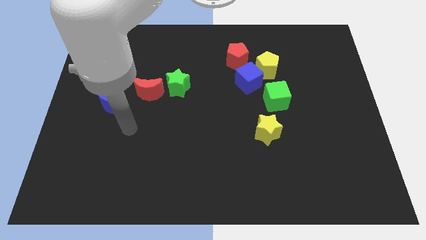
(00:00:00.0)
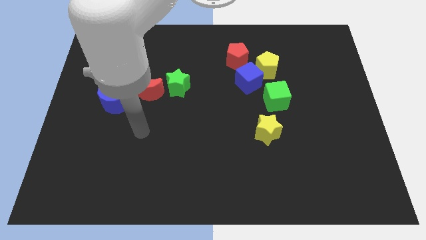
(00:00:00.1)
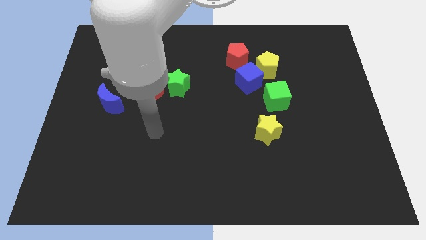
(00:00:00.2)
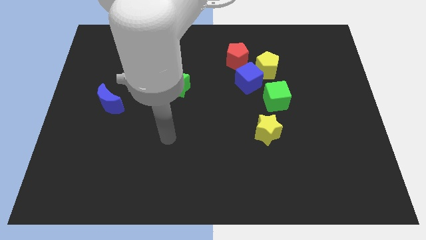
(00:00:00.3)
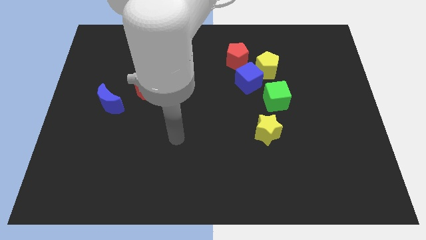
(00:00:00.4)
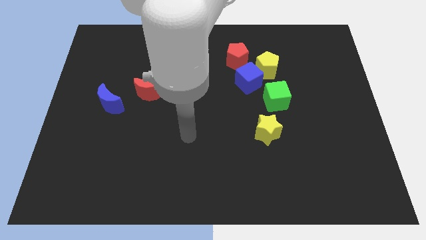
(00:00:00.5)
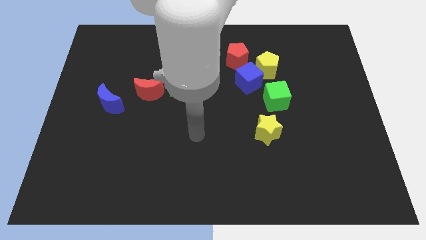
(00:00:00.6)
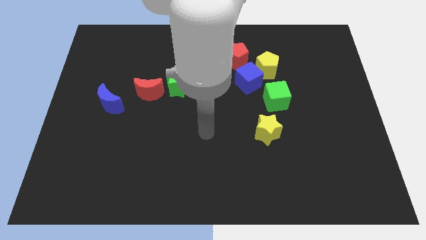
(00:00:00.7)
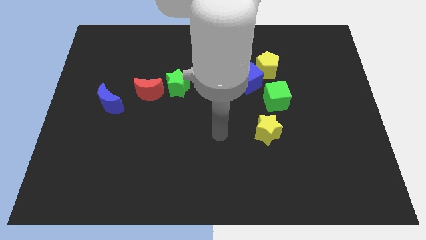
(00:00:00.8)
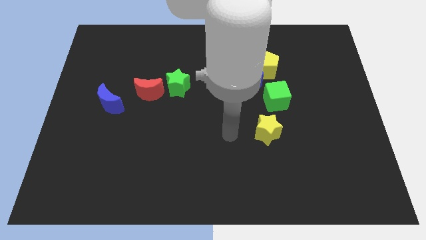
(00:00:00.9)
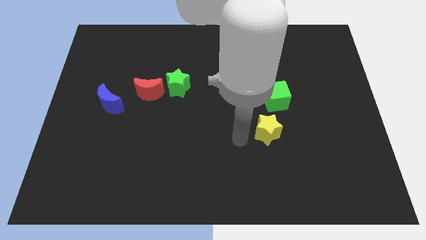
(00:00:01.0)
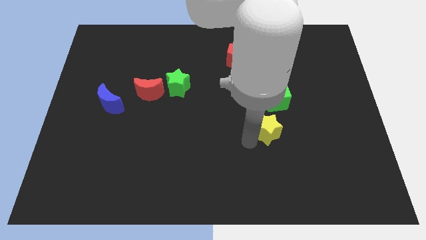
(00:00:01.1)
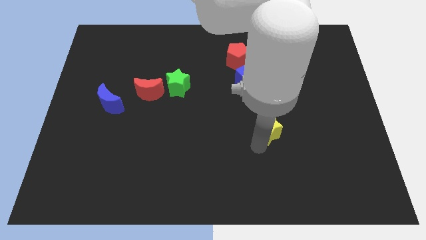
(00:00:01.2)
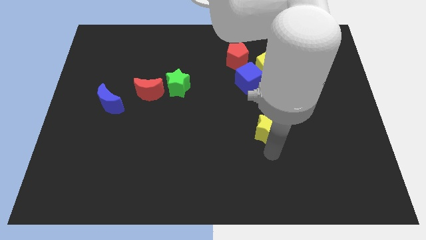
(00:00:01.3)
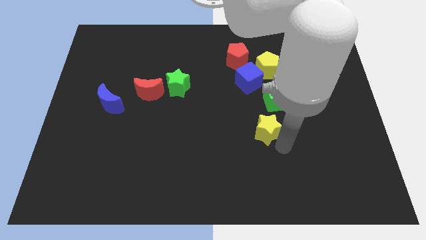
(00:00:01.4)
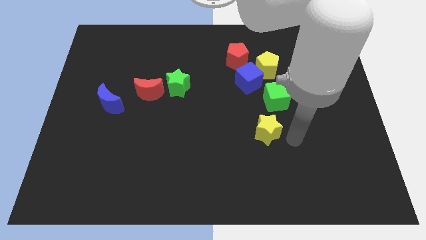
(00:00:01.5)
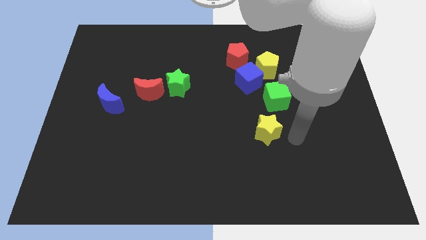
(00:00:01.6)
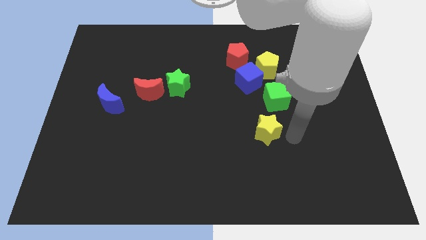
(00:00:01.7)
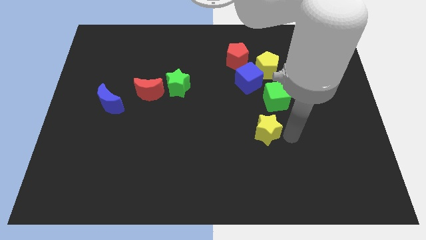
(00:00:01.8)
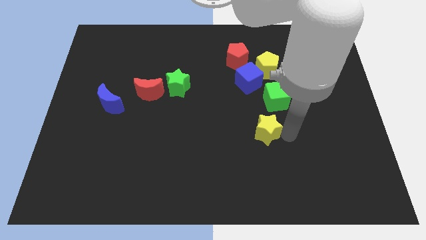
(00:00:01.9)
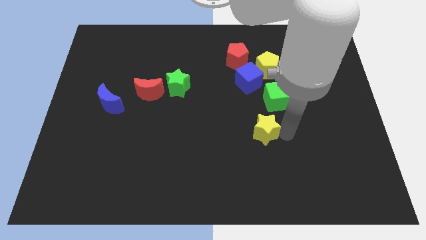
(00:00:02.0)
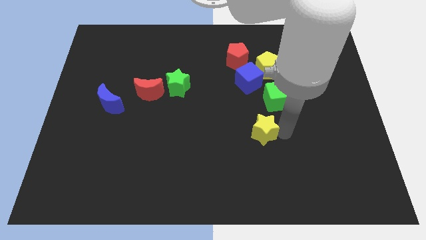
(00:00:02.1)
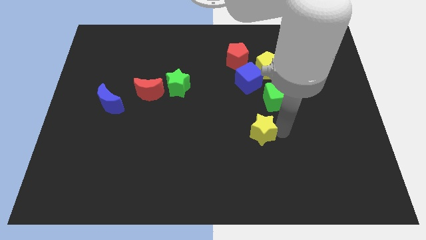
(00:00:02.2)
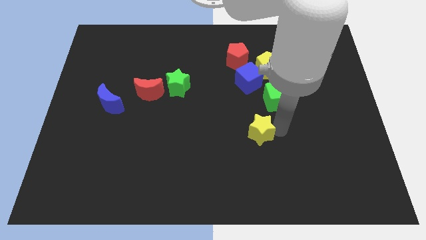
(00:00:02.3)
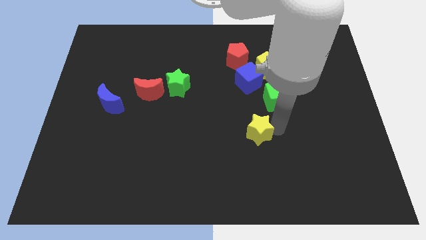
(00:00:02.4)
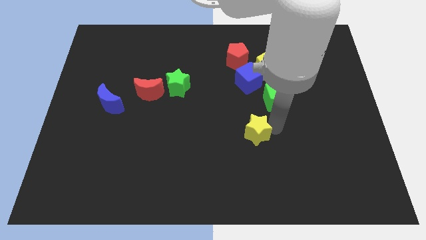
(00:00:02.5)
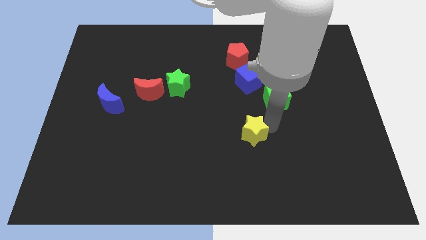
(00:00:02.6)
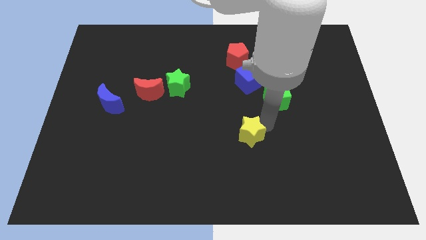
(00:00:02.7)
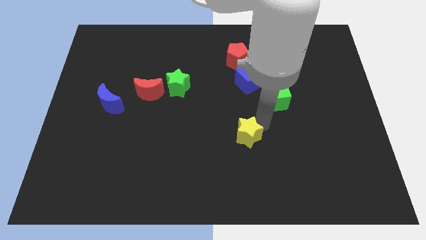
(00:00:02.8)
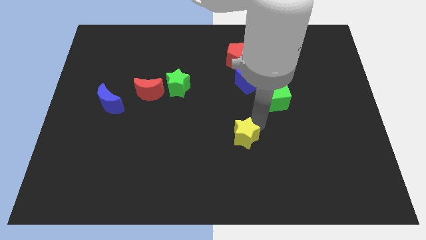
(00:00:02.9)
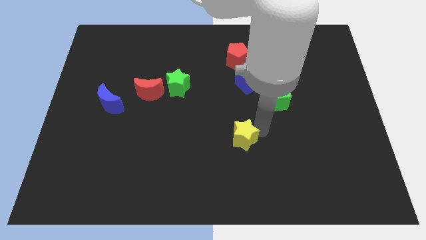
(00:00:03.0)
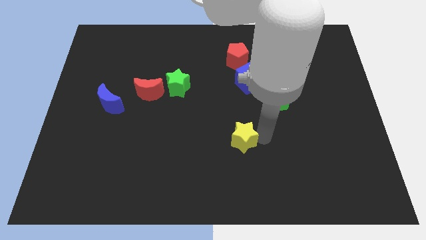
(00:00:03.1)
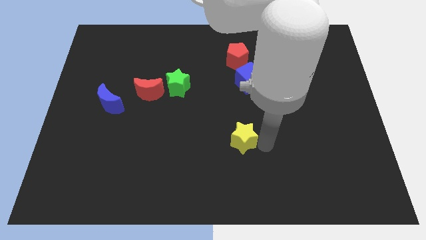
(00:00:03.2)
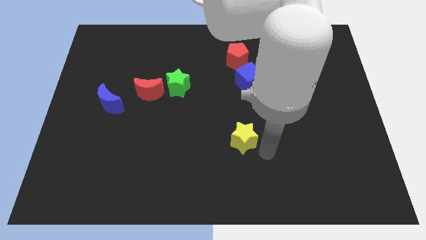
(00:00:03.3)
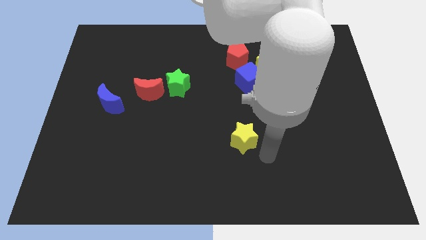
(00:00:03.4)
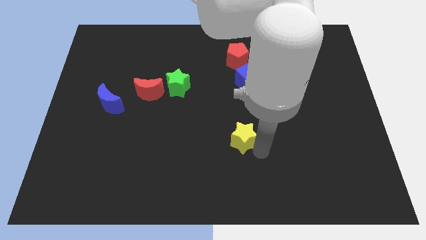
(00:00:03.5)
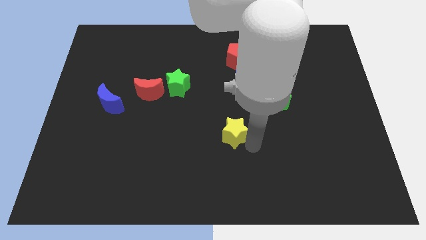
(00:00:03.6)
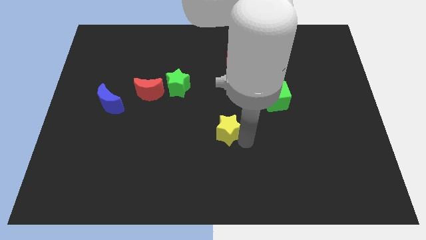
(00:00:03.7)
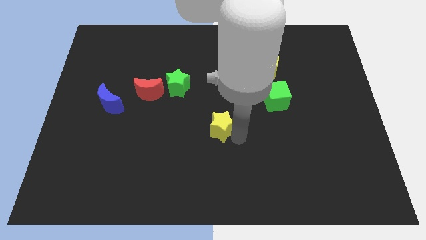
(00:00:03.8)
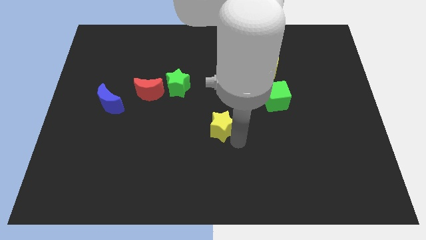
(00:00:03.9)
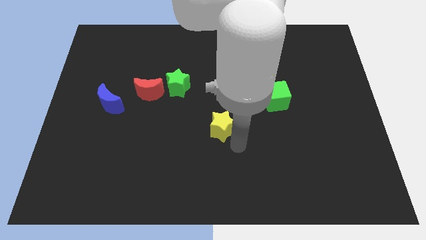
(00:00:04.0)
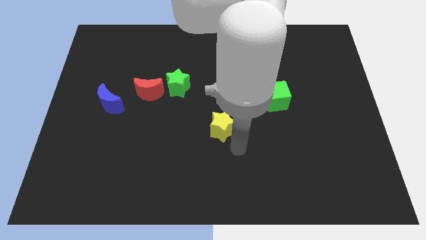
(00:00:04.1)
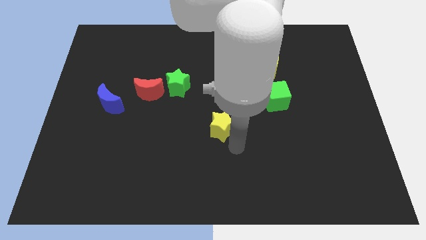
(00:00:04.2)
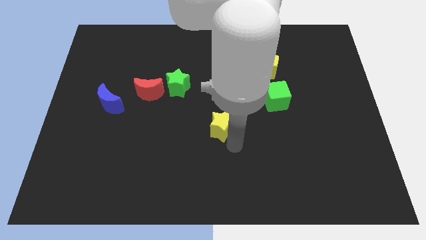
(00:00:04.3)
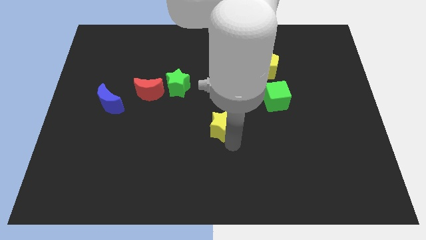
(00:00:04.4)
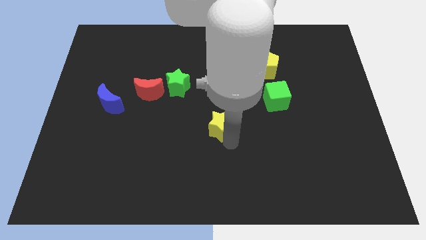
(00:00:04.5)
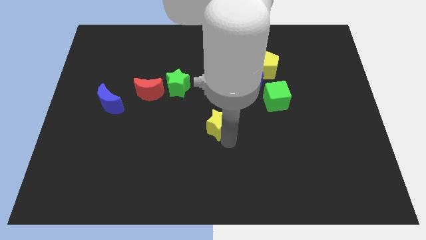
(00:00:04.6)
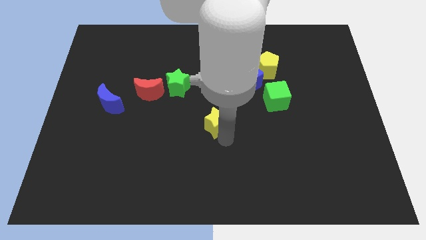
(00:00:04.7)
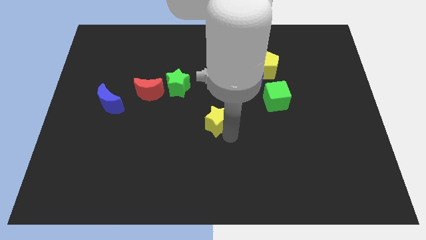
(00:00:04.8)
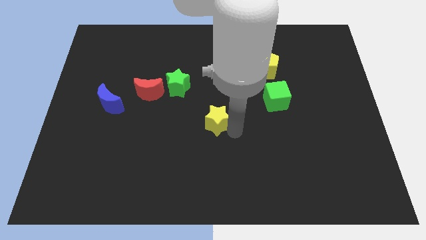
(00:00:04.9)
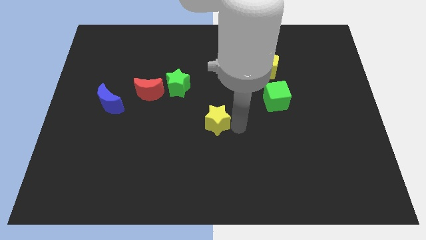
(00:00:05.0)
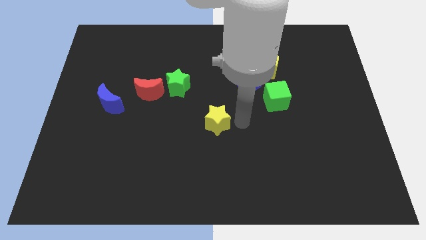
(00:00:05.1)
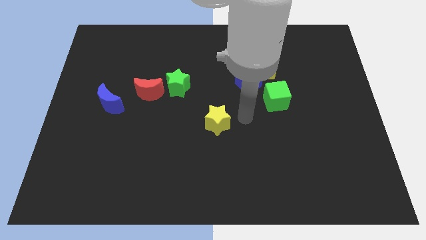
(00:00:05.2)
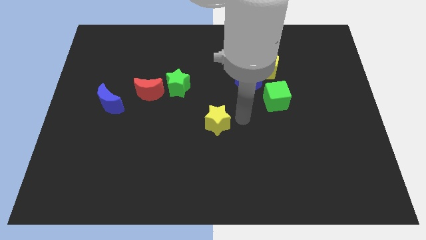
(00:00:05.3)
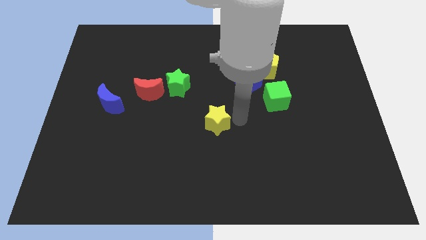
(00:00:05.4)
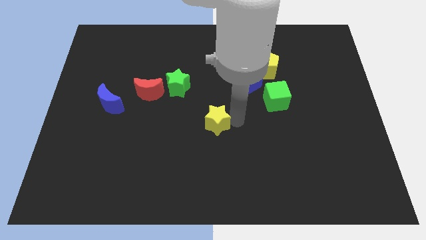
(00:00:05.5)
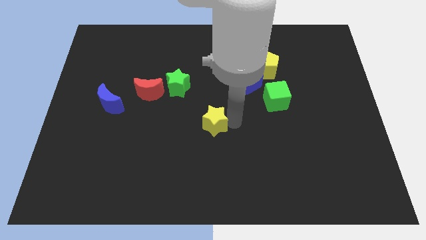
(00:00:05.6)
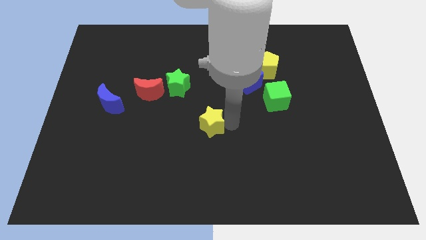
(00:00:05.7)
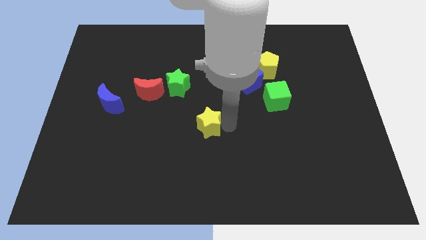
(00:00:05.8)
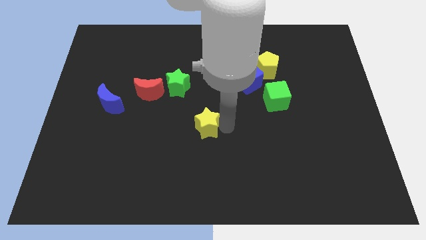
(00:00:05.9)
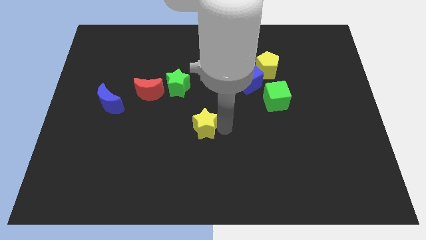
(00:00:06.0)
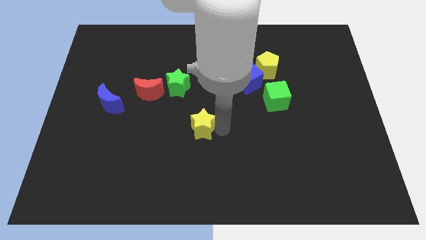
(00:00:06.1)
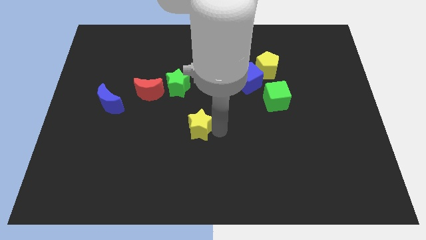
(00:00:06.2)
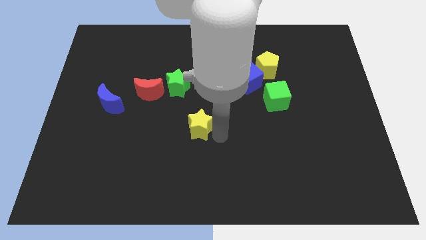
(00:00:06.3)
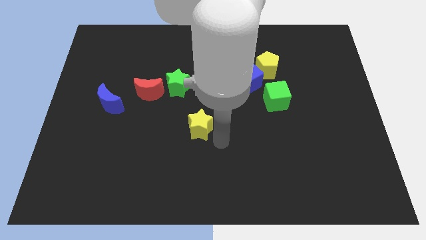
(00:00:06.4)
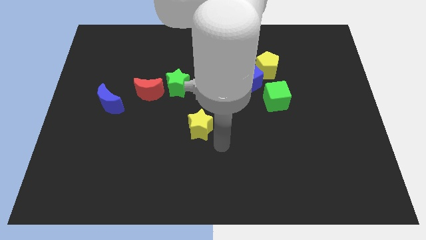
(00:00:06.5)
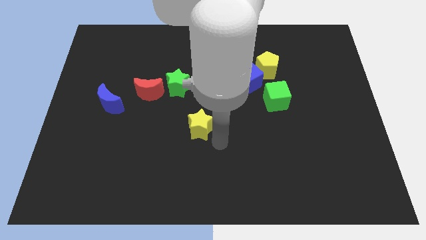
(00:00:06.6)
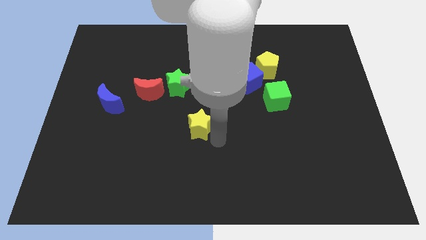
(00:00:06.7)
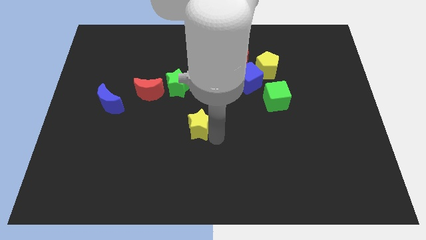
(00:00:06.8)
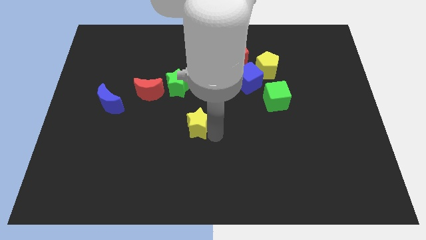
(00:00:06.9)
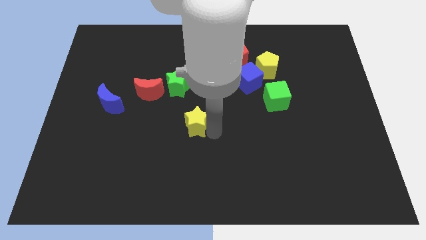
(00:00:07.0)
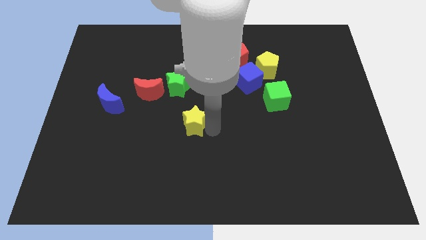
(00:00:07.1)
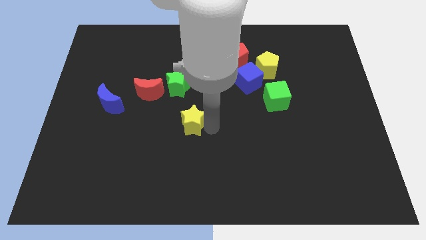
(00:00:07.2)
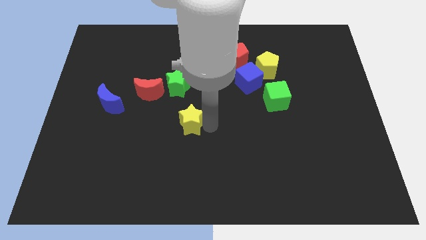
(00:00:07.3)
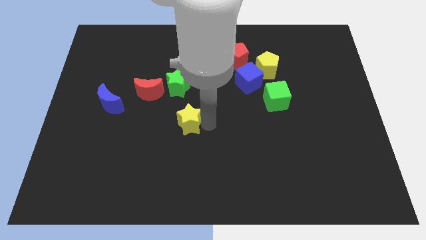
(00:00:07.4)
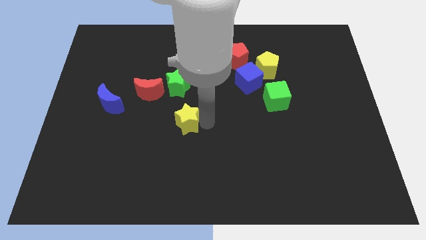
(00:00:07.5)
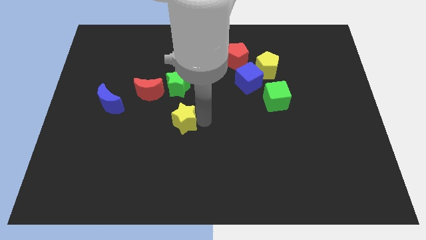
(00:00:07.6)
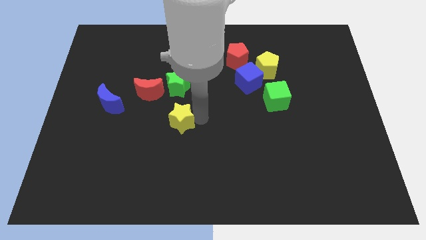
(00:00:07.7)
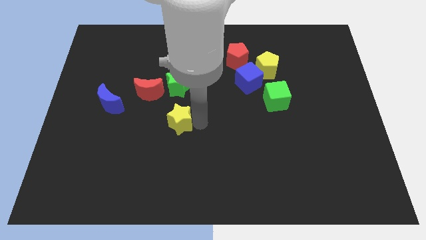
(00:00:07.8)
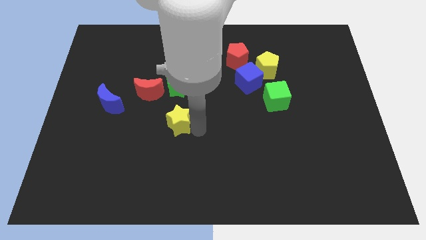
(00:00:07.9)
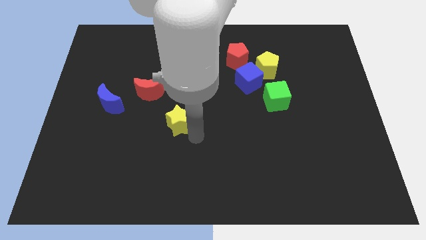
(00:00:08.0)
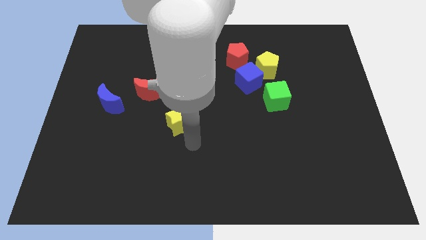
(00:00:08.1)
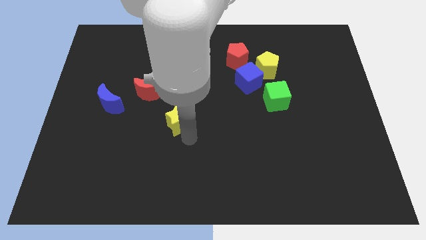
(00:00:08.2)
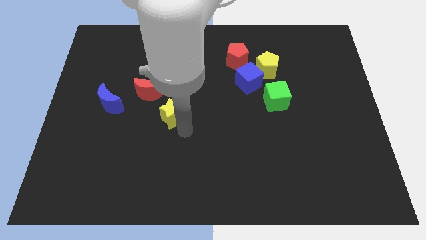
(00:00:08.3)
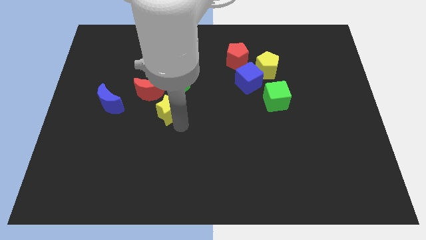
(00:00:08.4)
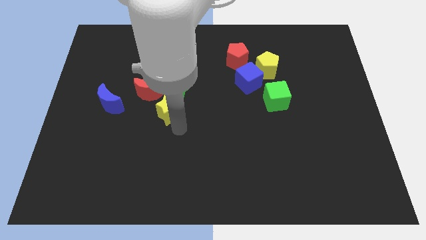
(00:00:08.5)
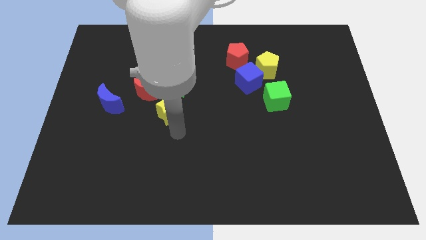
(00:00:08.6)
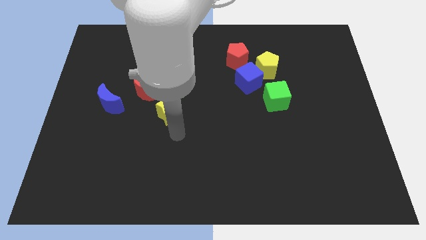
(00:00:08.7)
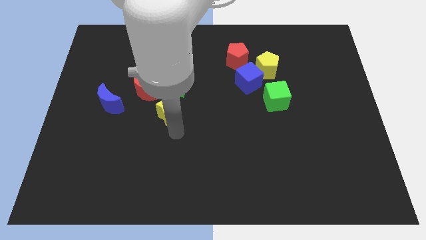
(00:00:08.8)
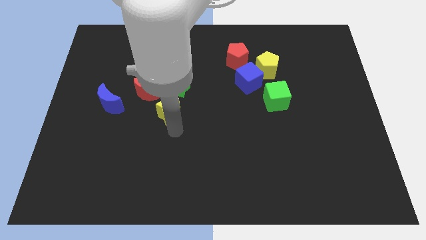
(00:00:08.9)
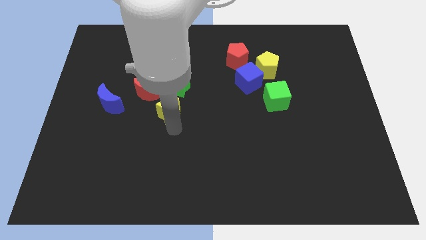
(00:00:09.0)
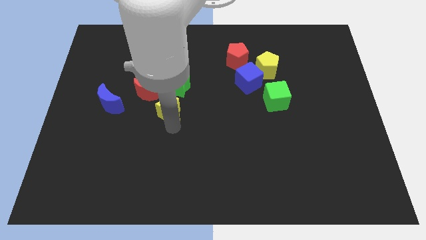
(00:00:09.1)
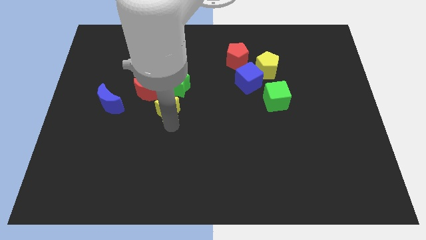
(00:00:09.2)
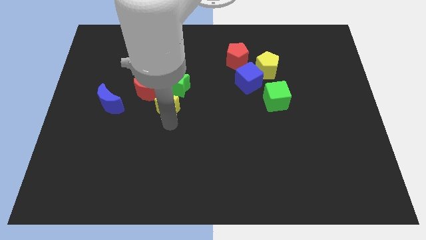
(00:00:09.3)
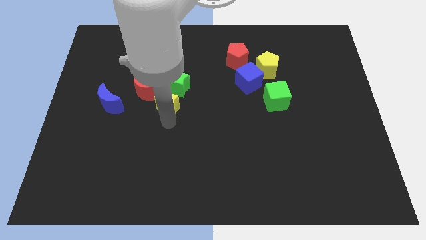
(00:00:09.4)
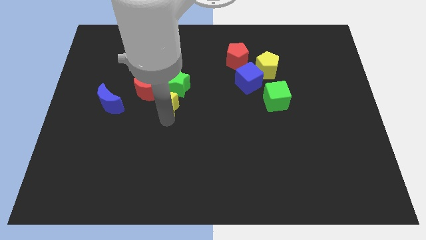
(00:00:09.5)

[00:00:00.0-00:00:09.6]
put the yellow star next to the red moon
